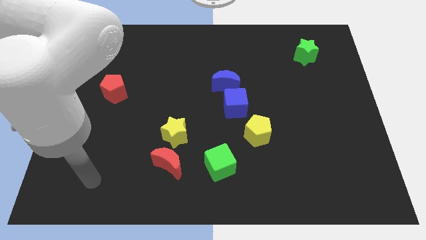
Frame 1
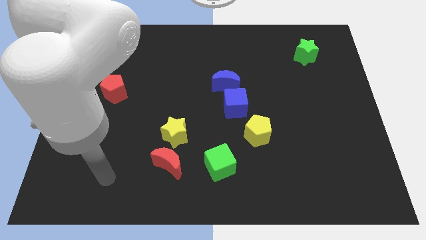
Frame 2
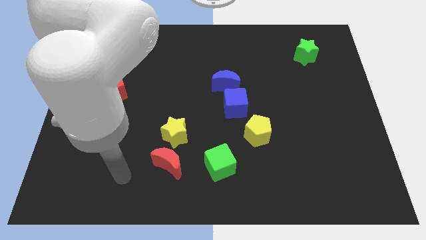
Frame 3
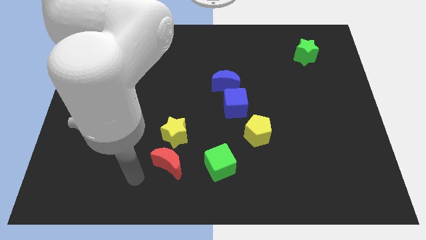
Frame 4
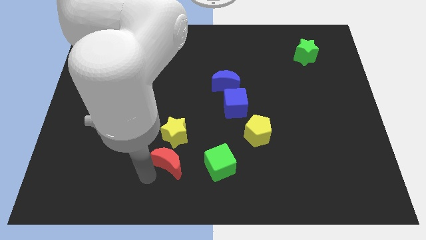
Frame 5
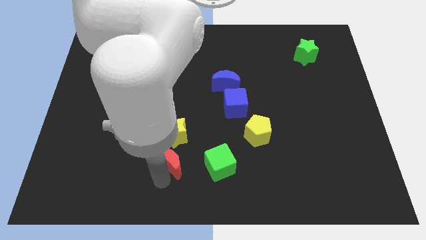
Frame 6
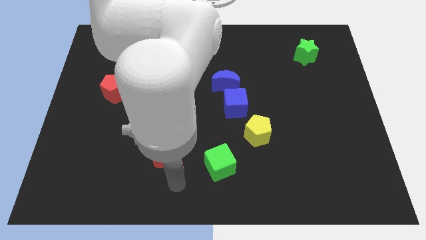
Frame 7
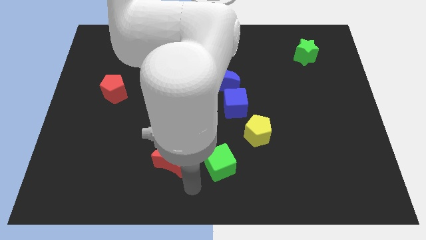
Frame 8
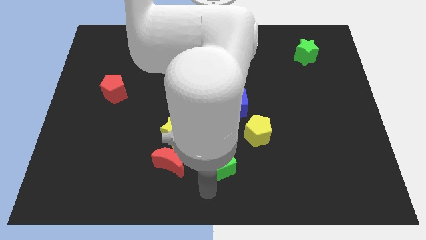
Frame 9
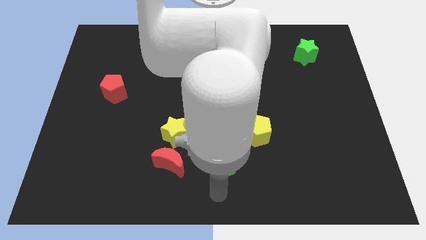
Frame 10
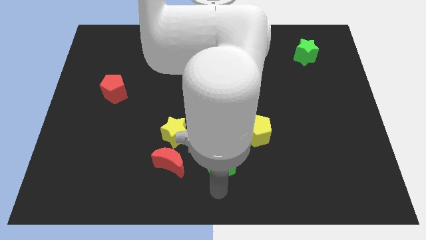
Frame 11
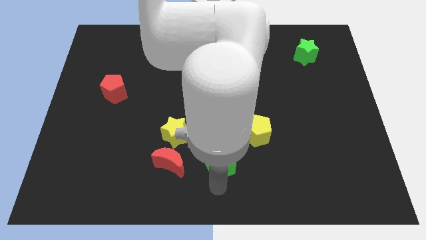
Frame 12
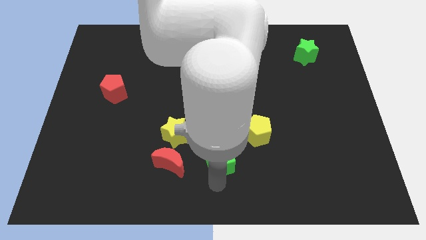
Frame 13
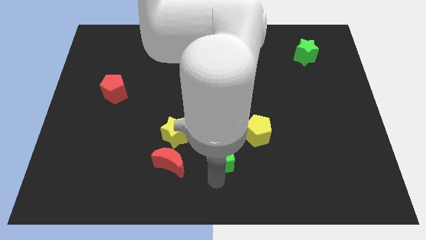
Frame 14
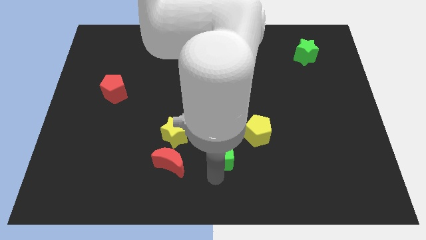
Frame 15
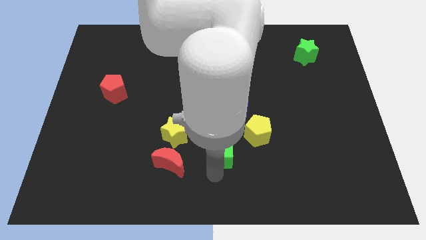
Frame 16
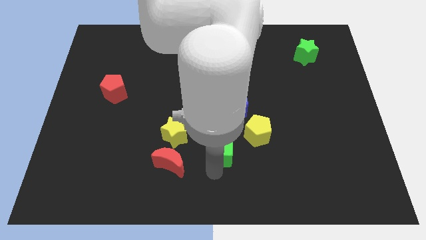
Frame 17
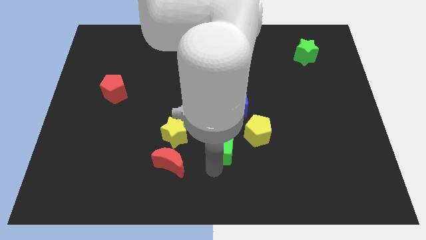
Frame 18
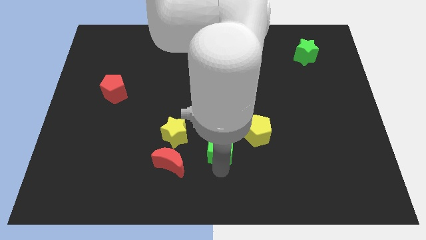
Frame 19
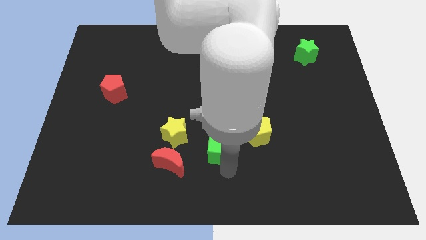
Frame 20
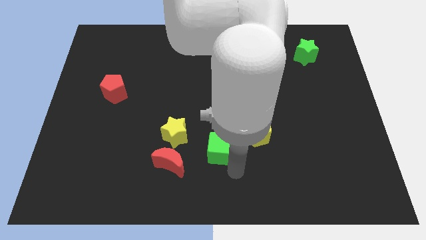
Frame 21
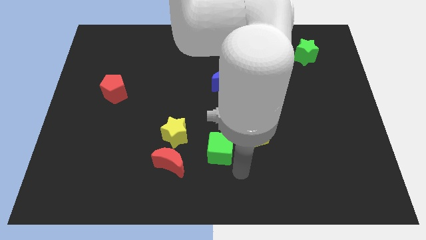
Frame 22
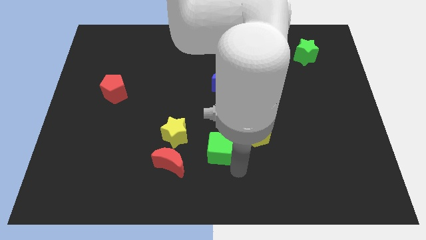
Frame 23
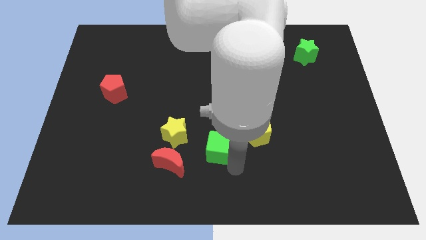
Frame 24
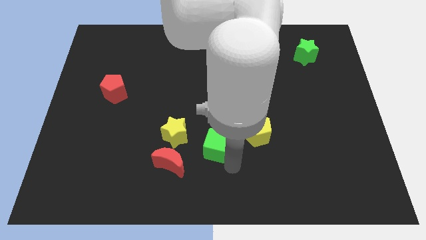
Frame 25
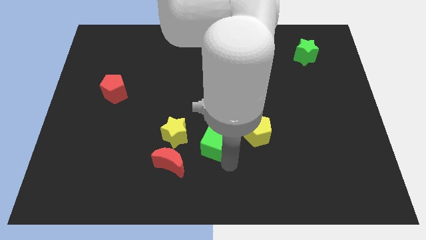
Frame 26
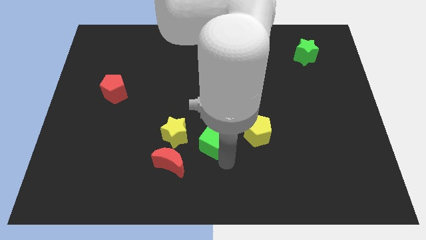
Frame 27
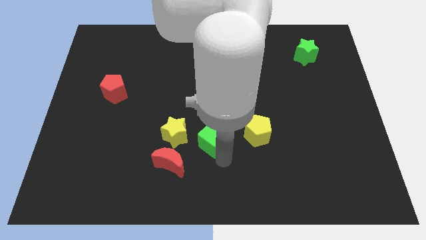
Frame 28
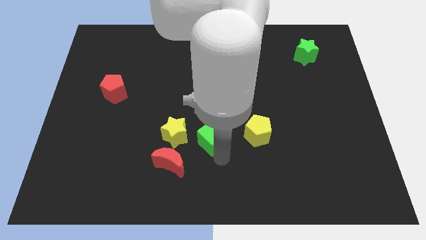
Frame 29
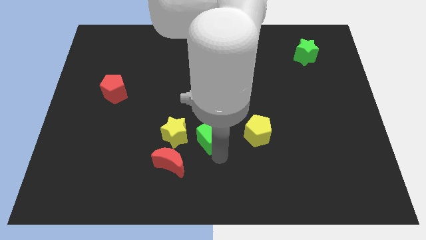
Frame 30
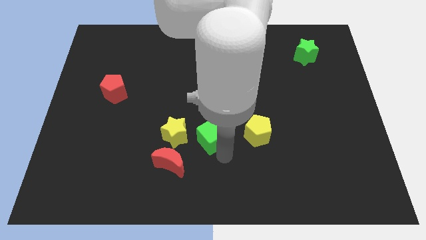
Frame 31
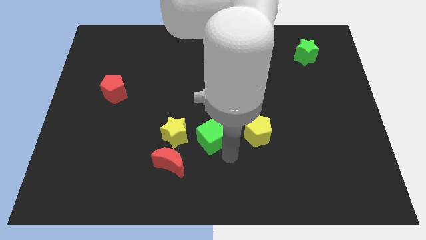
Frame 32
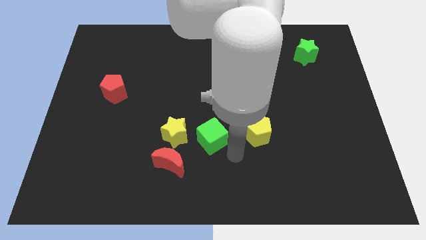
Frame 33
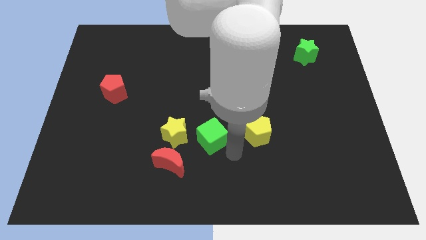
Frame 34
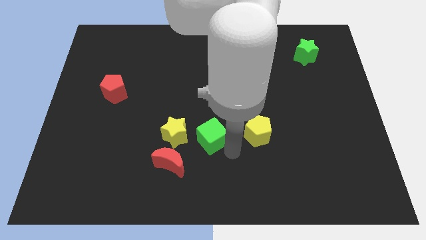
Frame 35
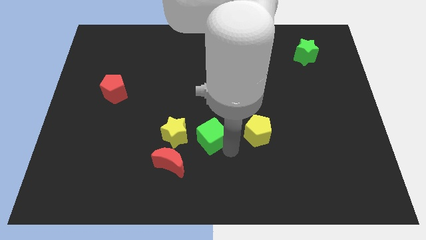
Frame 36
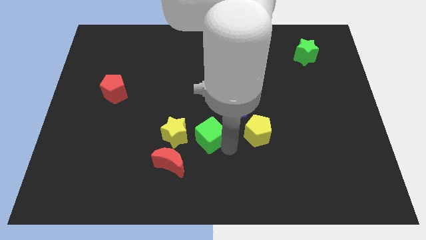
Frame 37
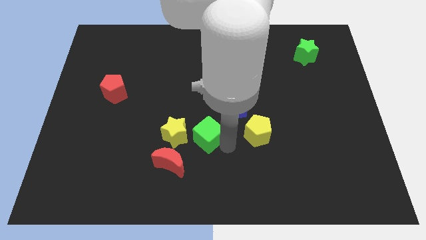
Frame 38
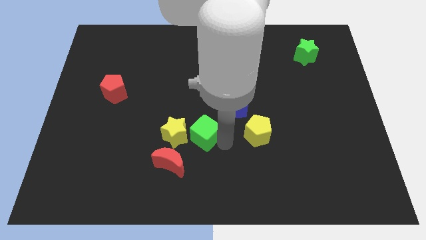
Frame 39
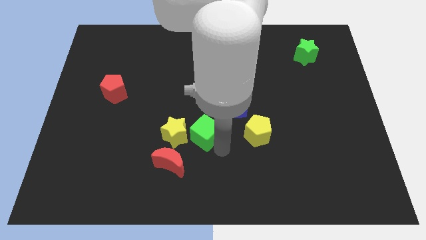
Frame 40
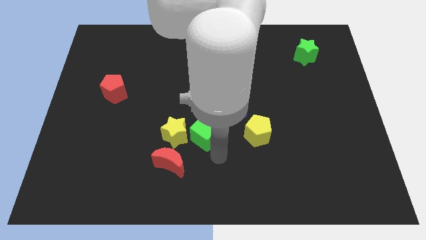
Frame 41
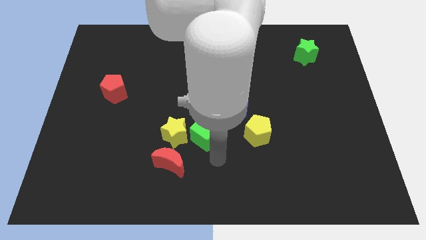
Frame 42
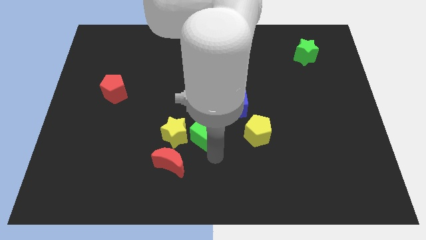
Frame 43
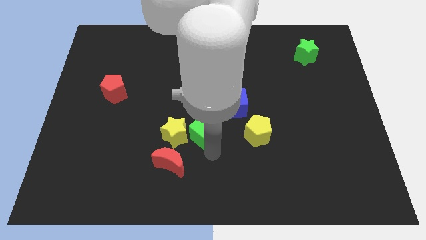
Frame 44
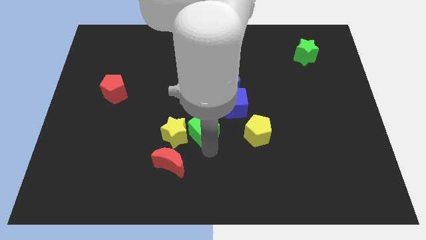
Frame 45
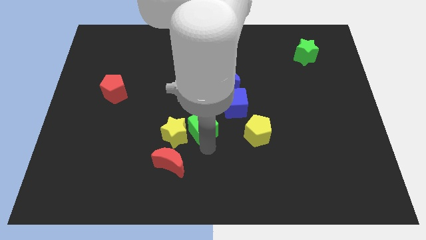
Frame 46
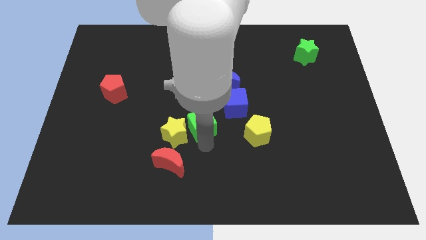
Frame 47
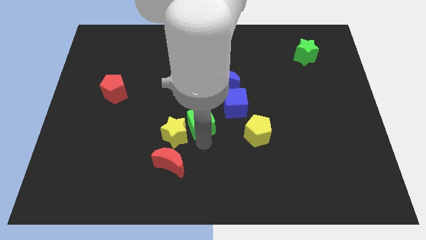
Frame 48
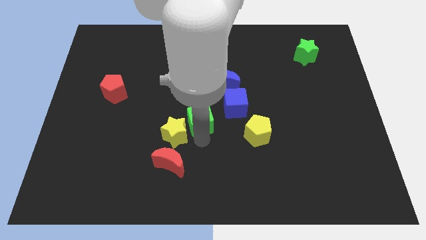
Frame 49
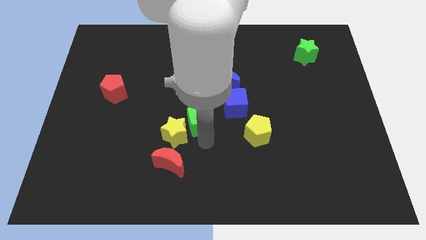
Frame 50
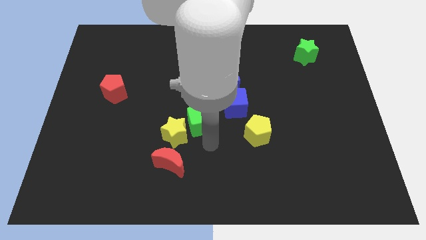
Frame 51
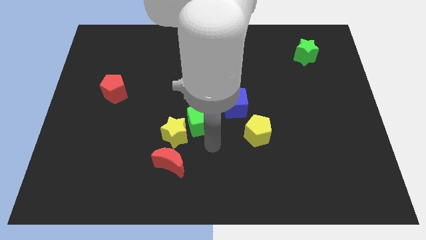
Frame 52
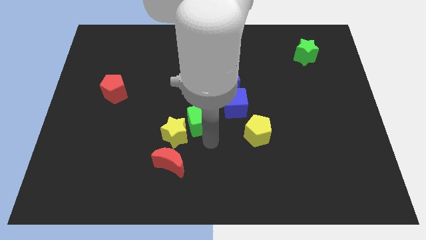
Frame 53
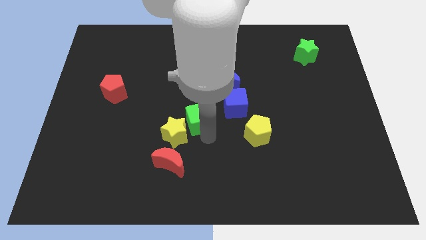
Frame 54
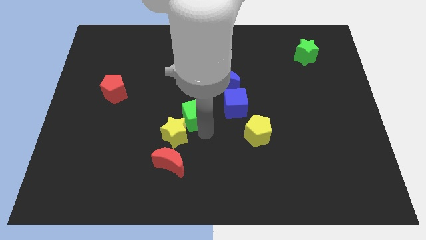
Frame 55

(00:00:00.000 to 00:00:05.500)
move the green cube above the red moon
